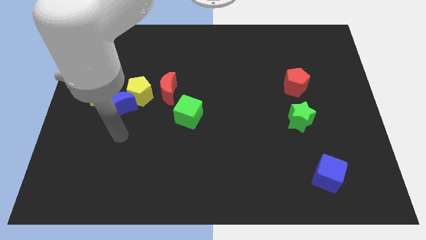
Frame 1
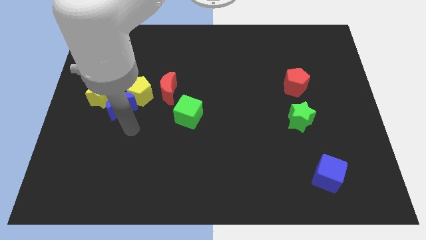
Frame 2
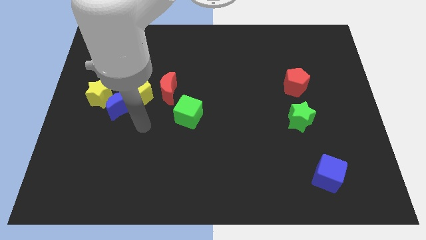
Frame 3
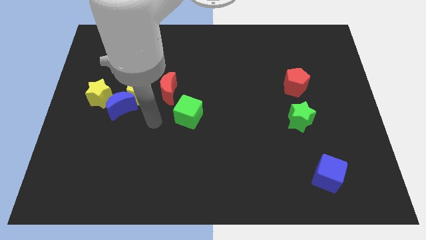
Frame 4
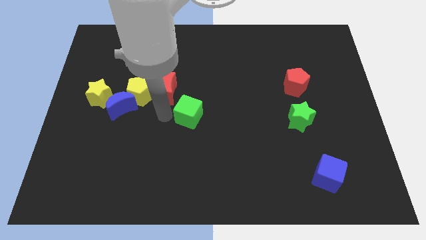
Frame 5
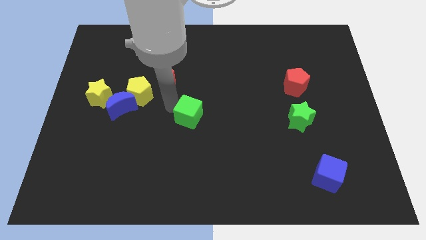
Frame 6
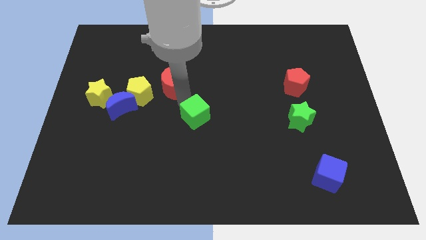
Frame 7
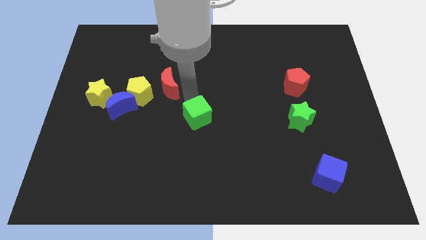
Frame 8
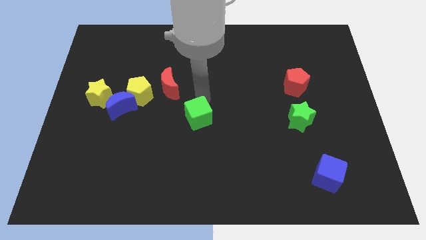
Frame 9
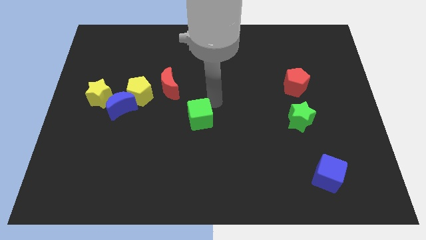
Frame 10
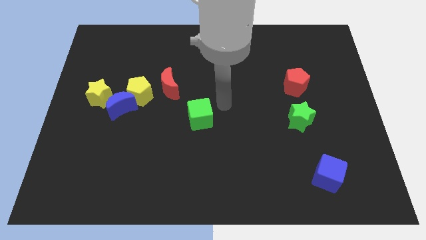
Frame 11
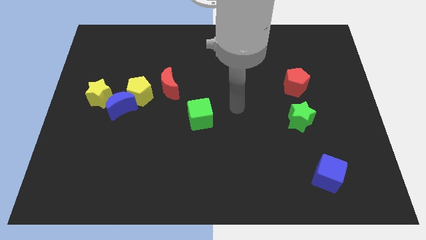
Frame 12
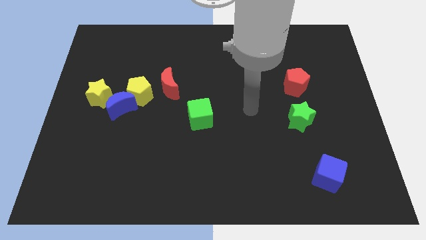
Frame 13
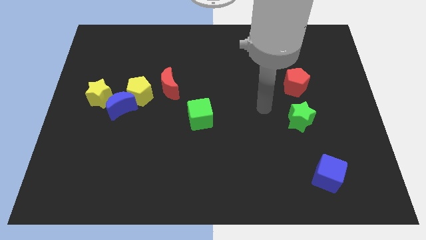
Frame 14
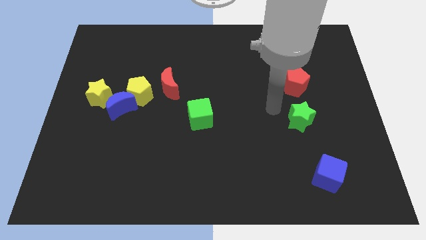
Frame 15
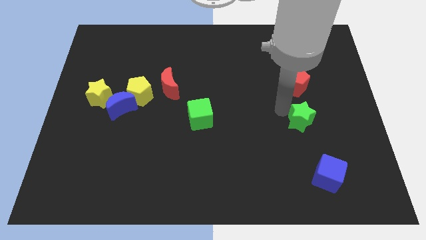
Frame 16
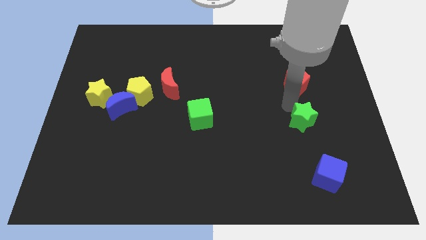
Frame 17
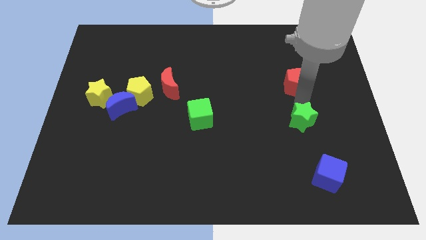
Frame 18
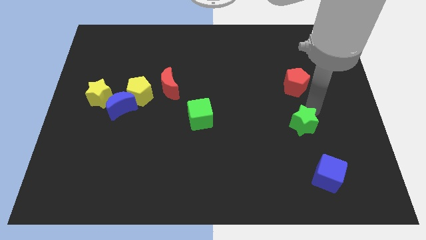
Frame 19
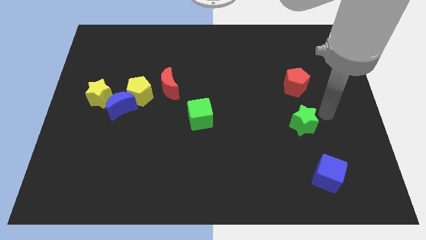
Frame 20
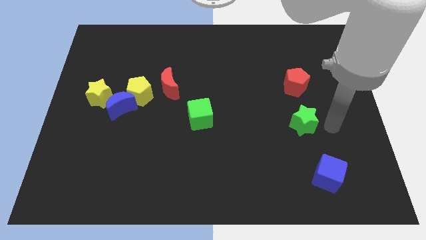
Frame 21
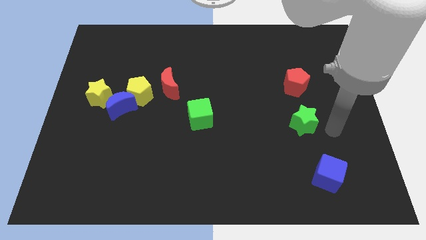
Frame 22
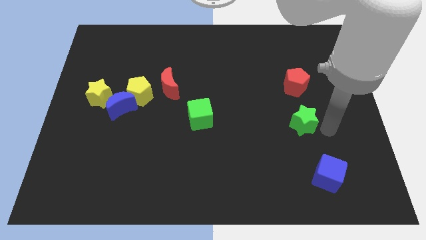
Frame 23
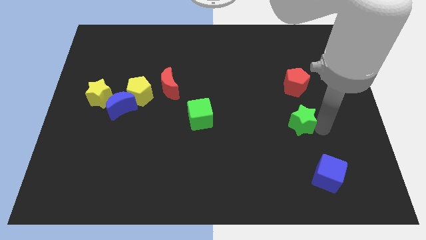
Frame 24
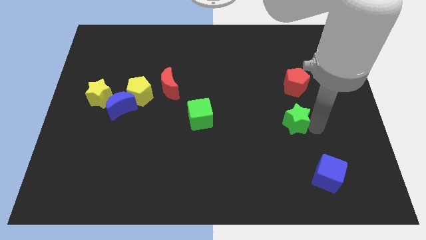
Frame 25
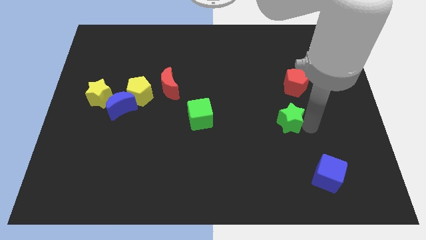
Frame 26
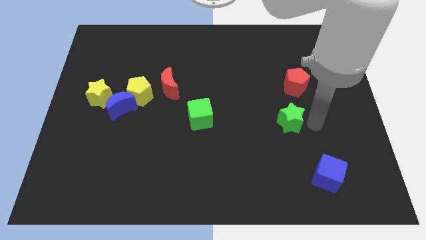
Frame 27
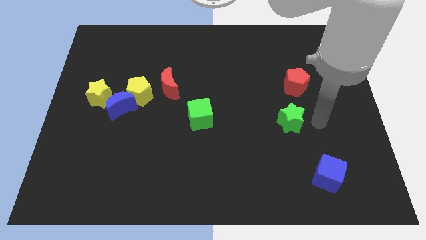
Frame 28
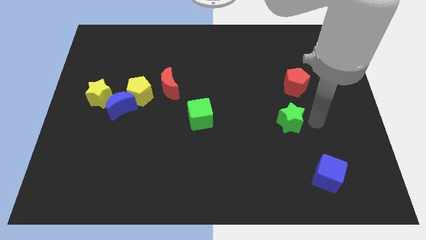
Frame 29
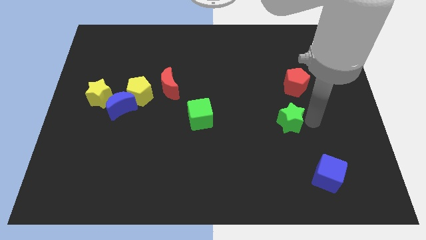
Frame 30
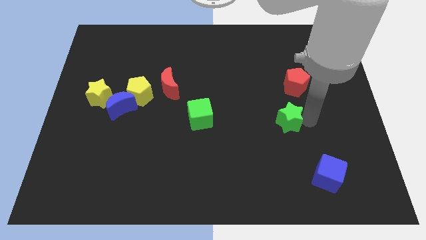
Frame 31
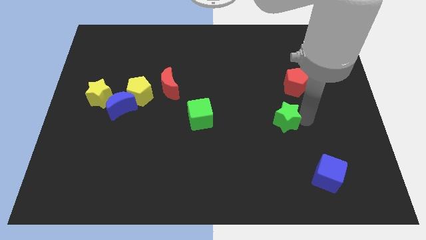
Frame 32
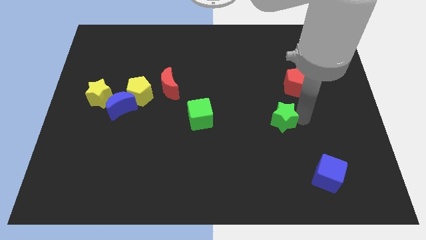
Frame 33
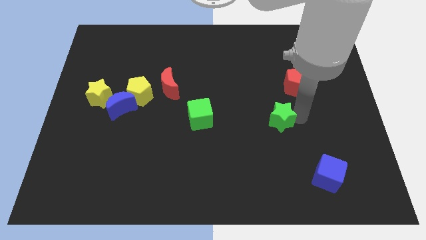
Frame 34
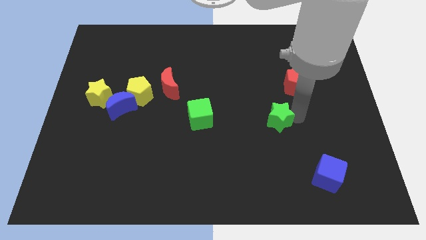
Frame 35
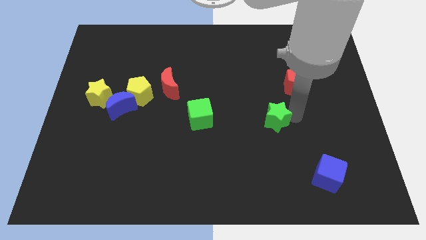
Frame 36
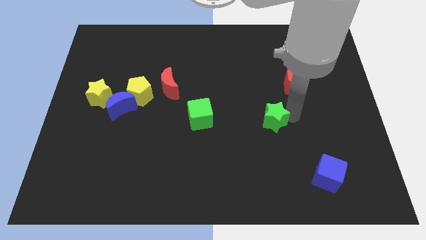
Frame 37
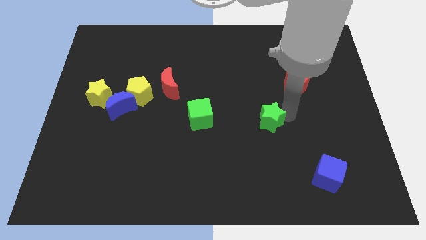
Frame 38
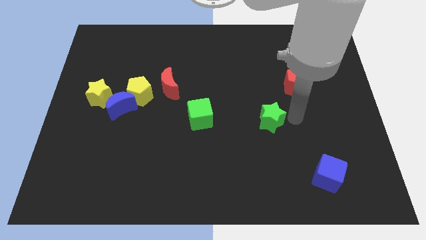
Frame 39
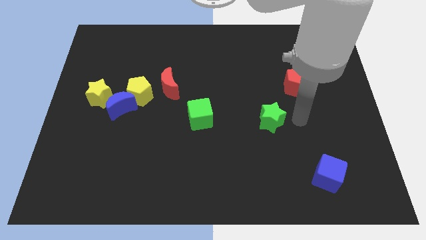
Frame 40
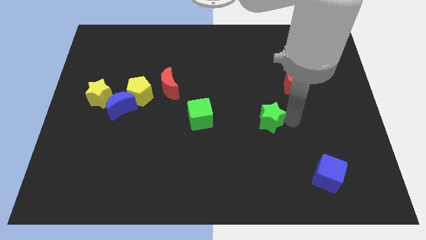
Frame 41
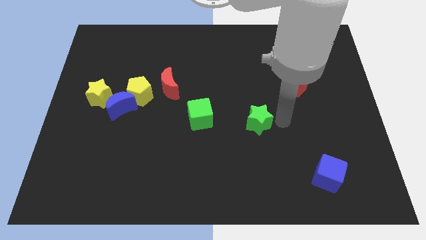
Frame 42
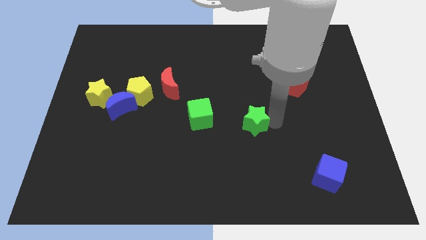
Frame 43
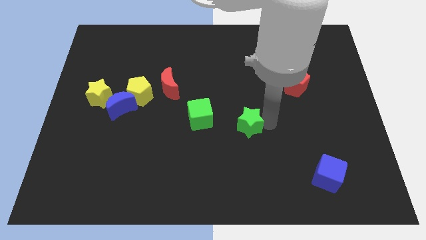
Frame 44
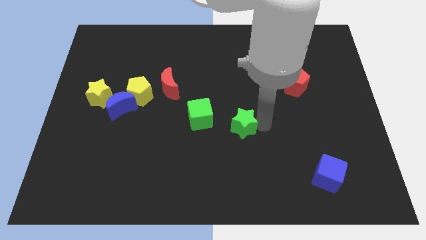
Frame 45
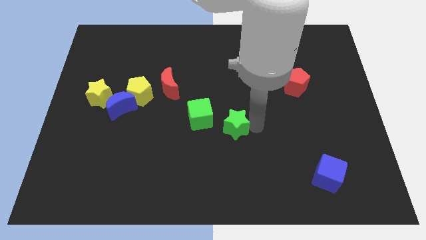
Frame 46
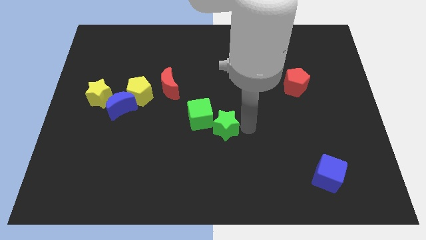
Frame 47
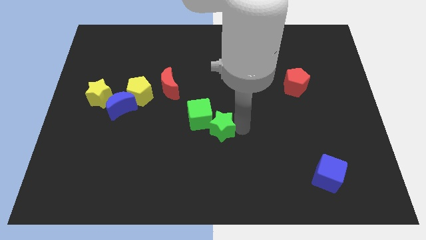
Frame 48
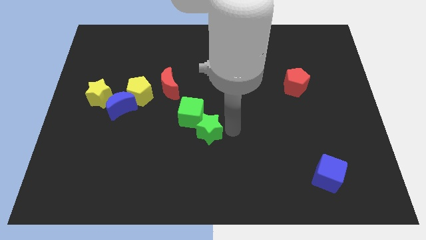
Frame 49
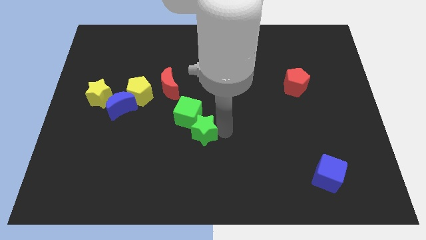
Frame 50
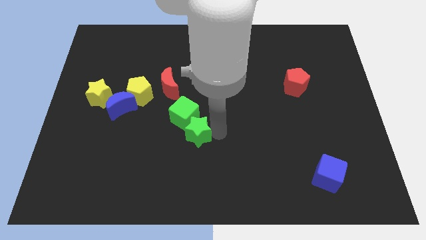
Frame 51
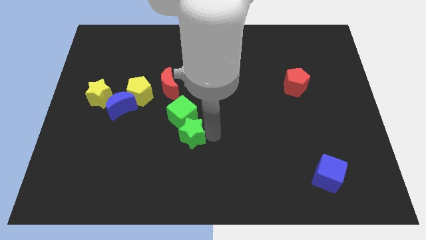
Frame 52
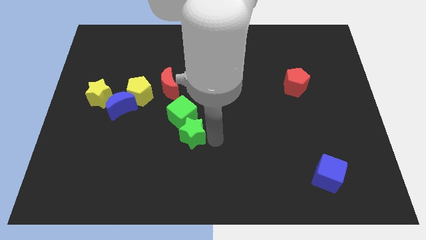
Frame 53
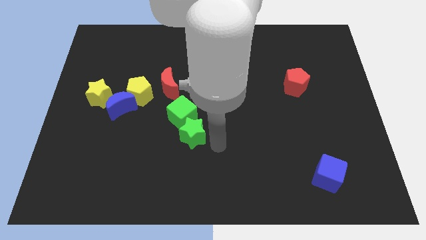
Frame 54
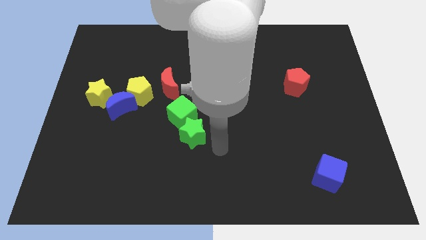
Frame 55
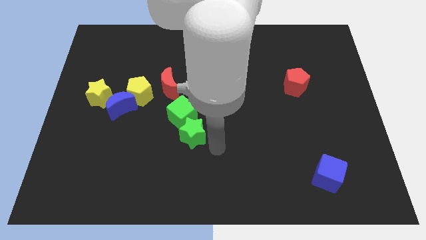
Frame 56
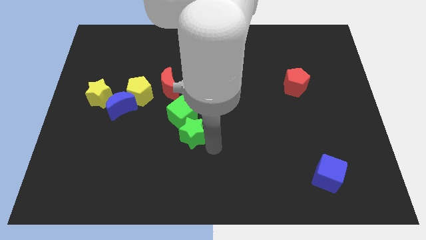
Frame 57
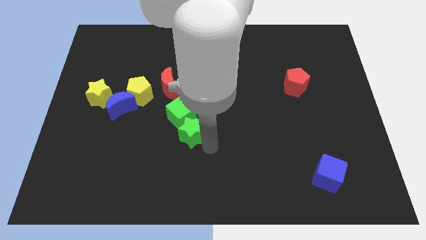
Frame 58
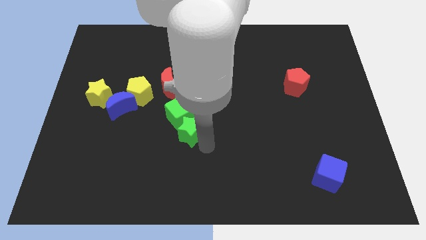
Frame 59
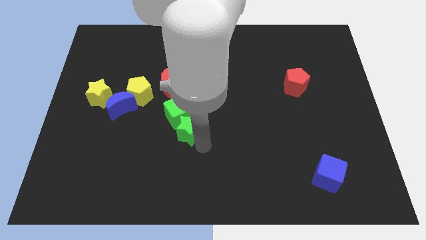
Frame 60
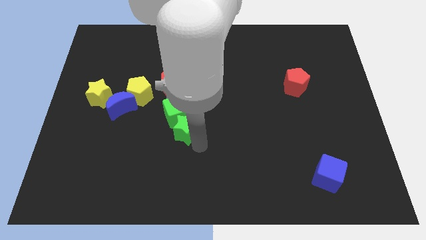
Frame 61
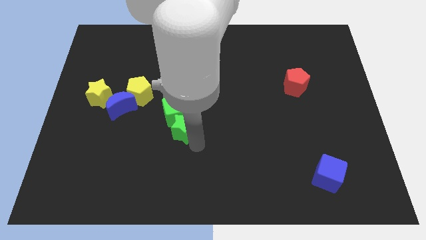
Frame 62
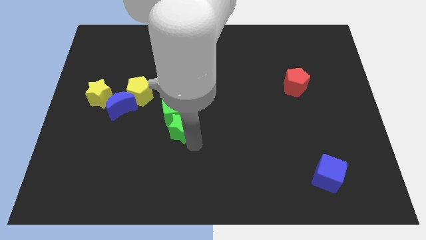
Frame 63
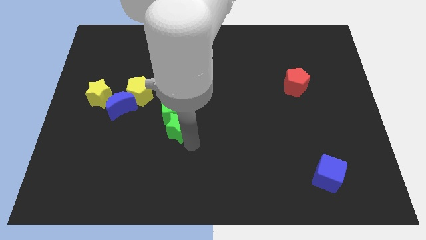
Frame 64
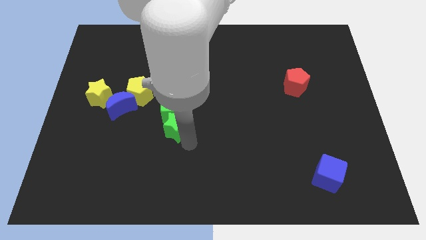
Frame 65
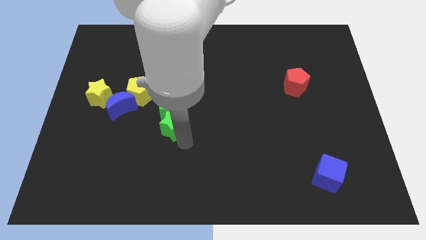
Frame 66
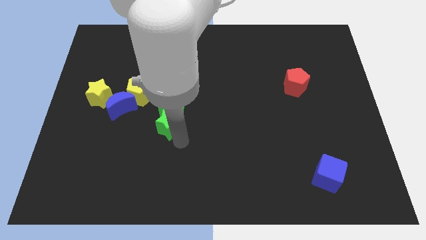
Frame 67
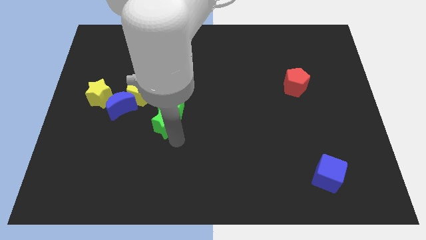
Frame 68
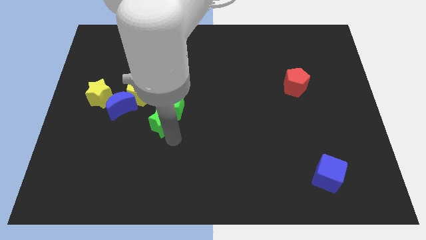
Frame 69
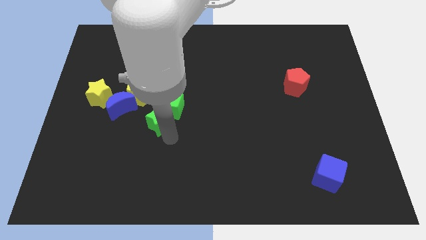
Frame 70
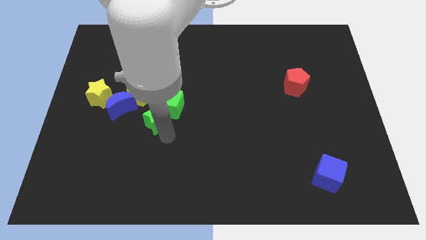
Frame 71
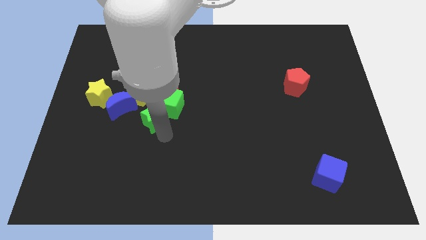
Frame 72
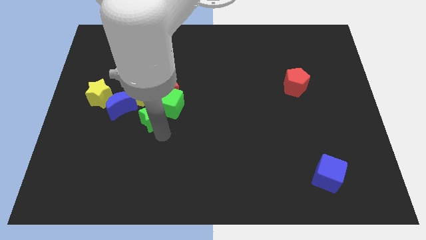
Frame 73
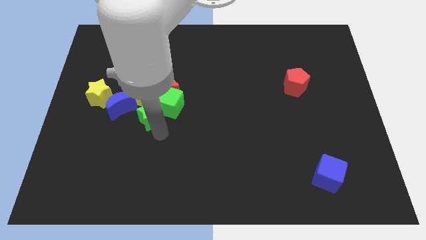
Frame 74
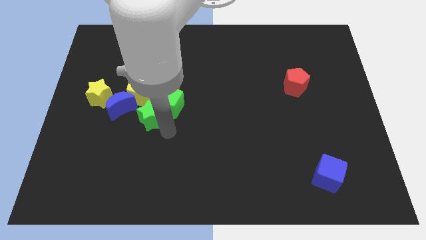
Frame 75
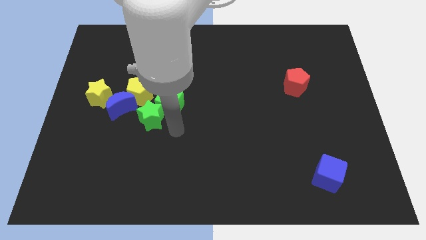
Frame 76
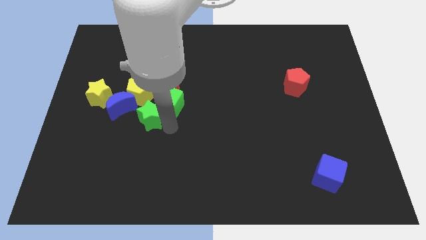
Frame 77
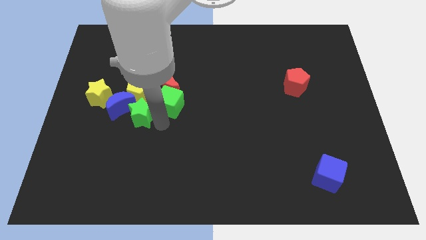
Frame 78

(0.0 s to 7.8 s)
put the green star towards the blue moon
